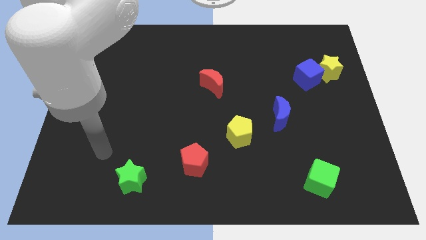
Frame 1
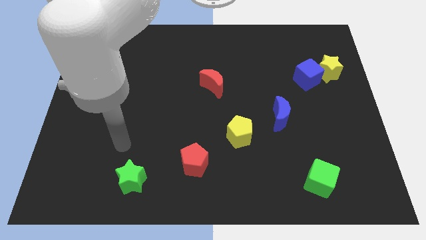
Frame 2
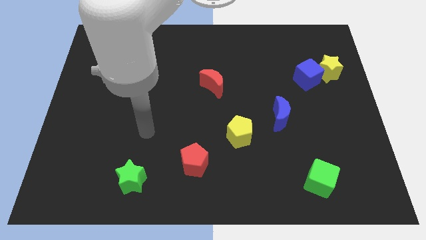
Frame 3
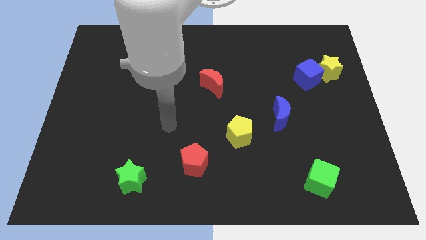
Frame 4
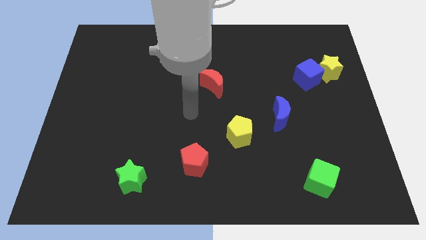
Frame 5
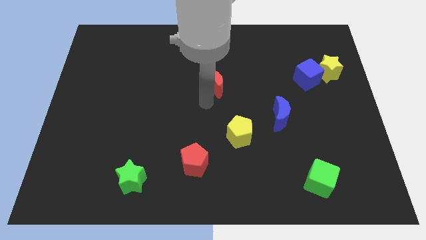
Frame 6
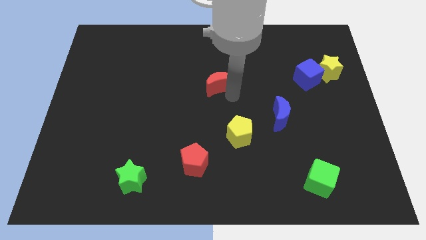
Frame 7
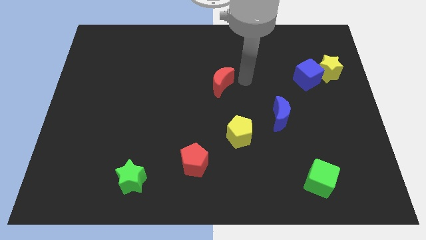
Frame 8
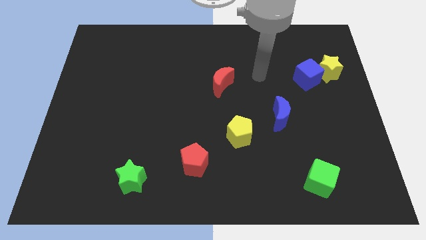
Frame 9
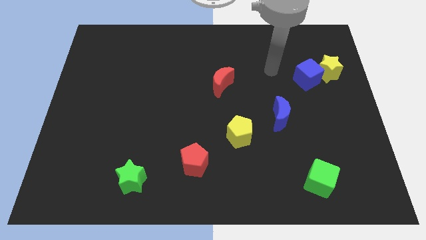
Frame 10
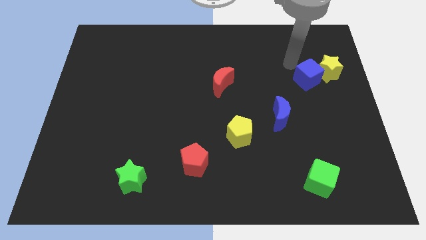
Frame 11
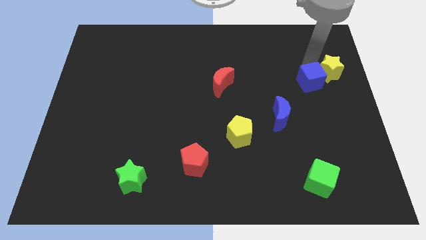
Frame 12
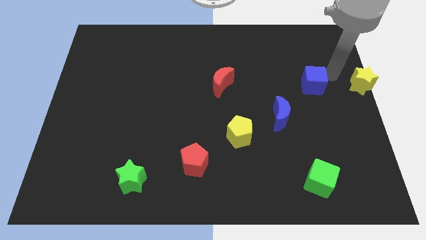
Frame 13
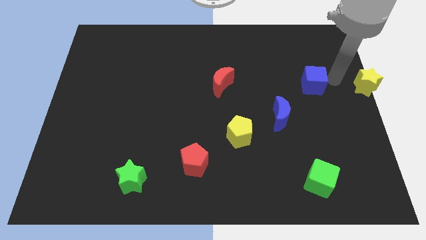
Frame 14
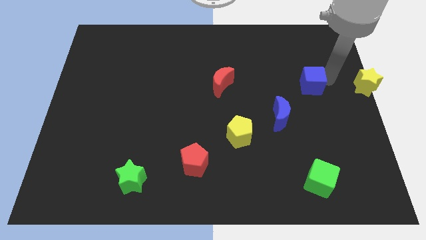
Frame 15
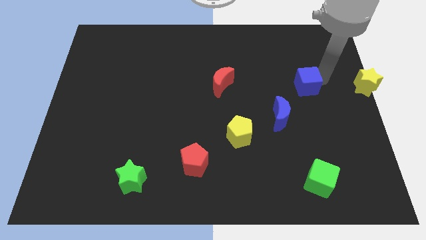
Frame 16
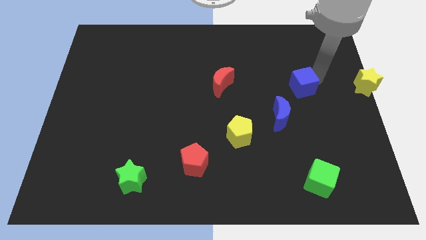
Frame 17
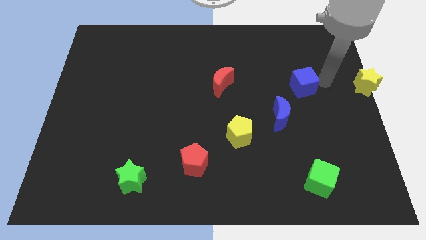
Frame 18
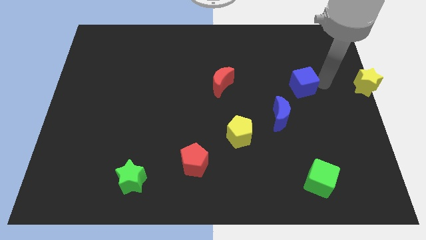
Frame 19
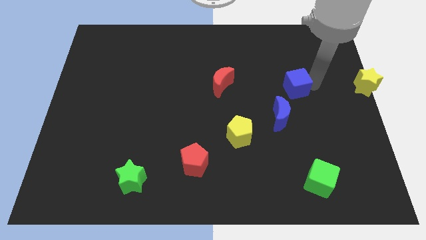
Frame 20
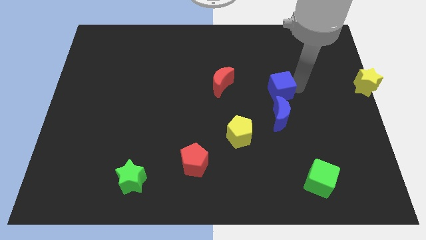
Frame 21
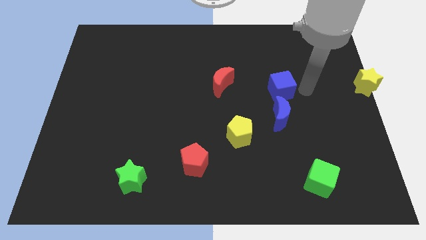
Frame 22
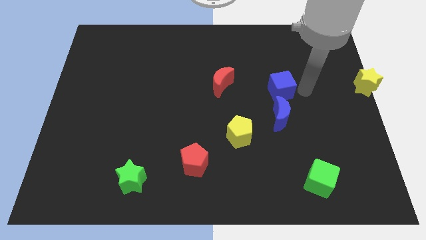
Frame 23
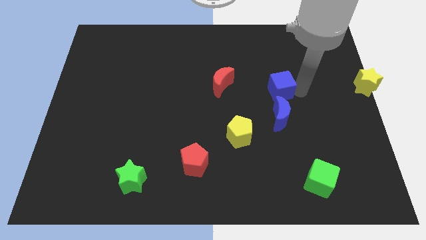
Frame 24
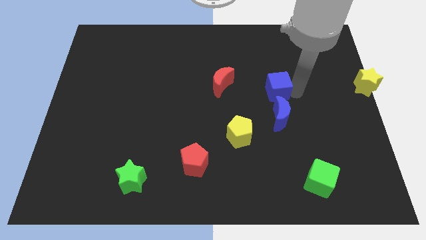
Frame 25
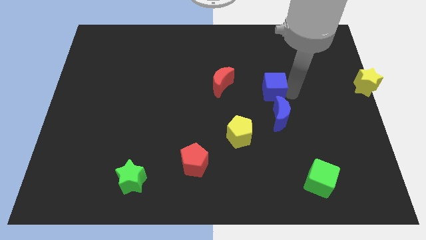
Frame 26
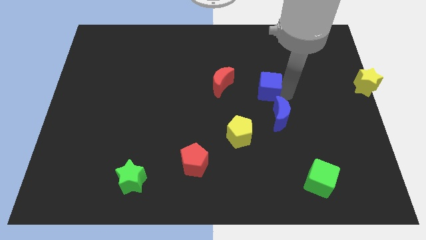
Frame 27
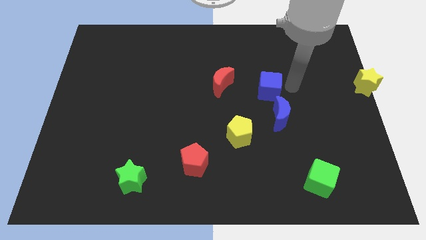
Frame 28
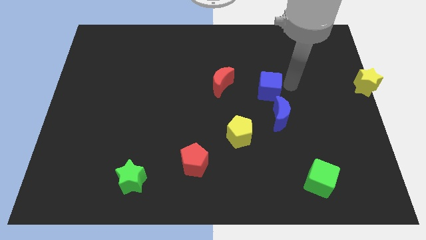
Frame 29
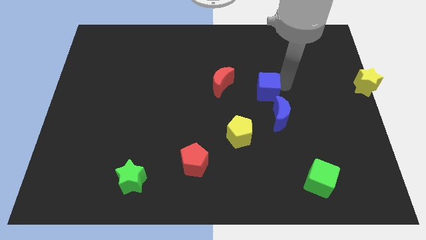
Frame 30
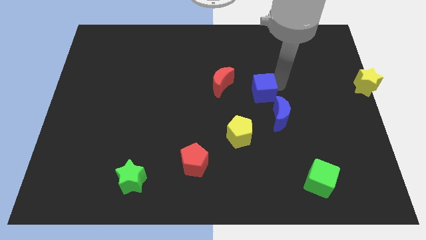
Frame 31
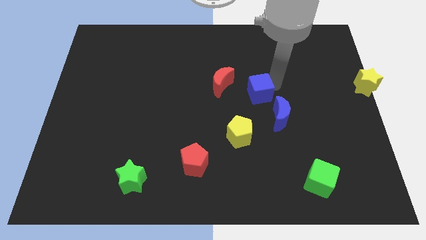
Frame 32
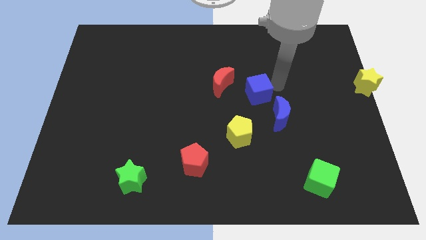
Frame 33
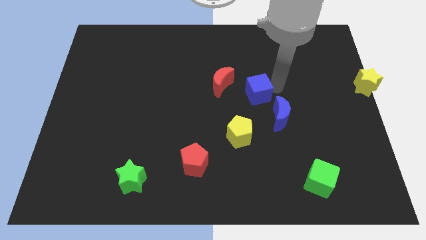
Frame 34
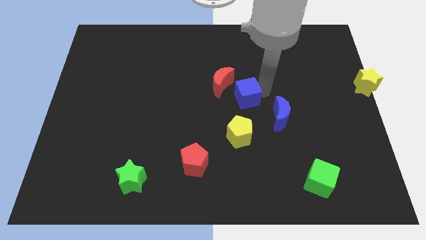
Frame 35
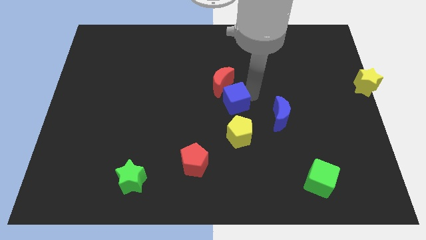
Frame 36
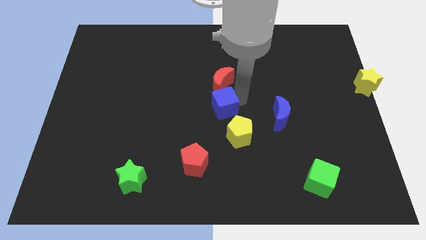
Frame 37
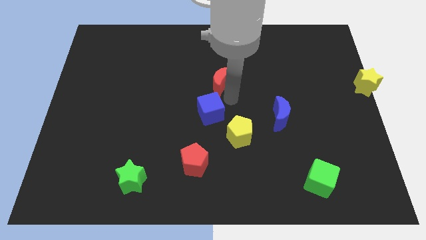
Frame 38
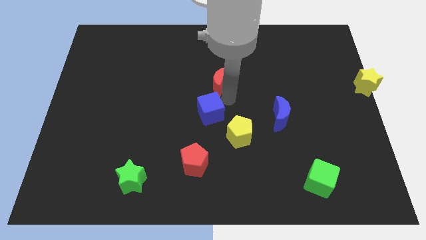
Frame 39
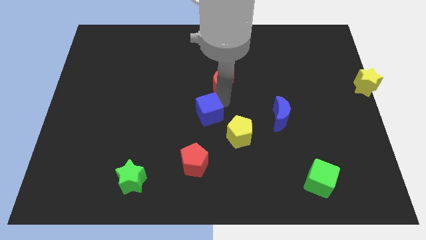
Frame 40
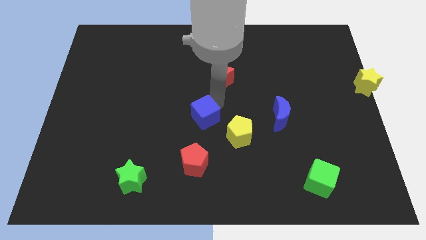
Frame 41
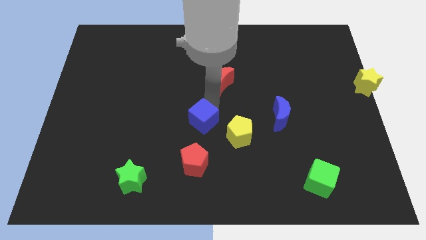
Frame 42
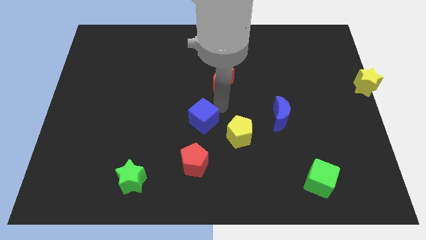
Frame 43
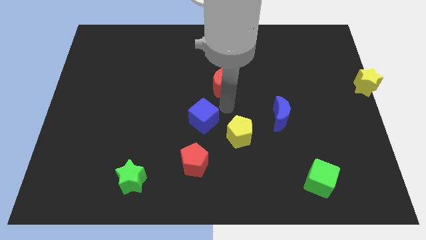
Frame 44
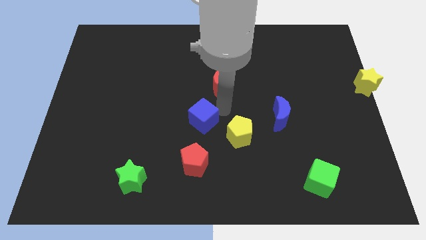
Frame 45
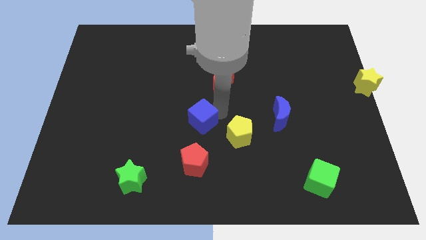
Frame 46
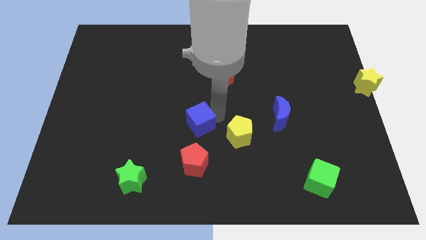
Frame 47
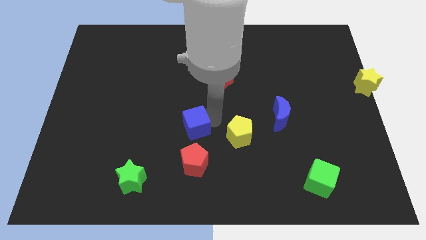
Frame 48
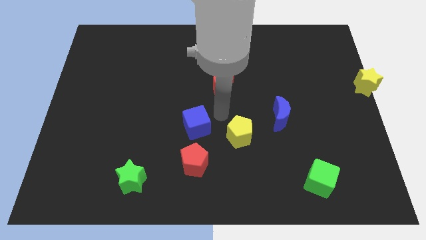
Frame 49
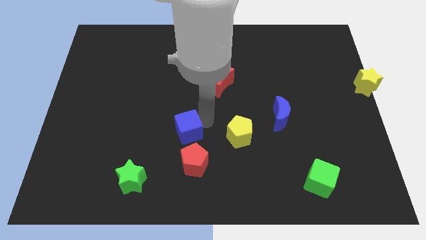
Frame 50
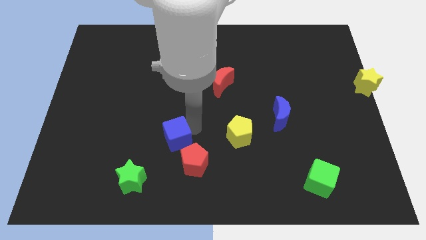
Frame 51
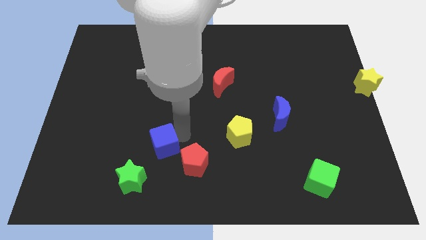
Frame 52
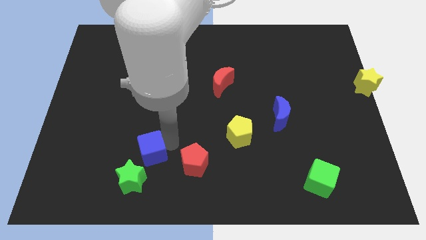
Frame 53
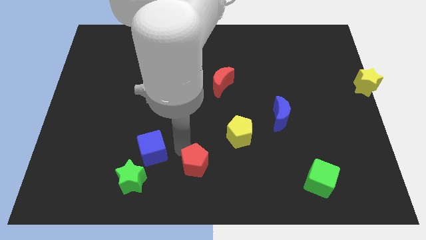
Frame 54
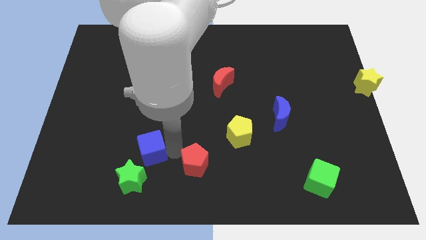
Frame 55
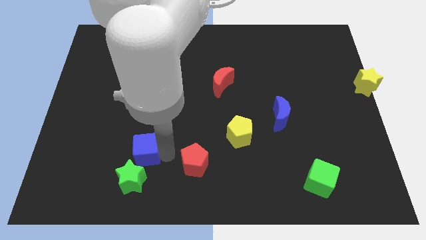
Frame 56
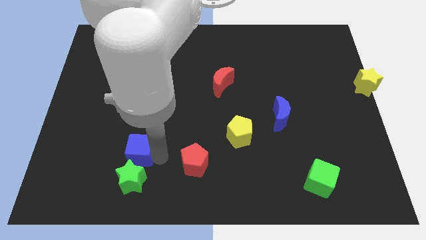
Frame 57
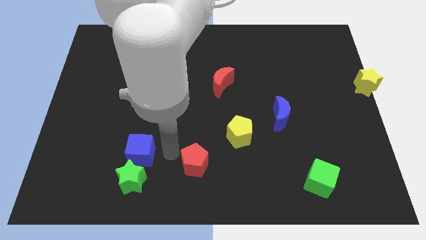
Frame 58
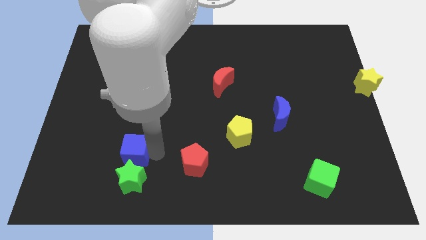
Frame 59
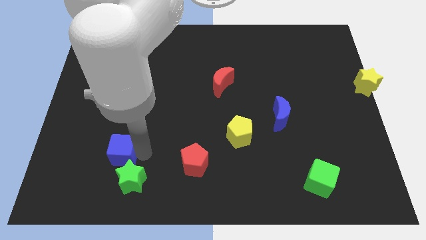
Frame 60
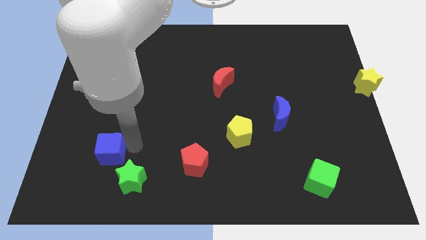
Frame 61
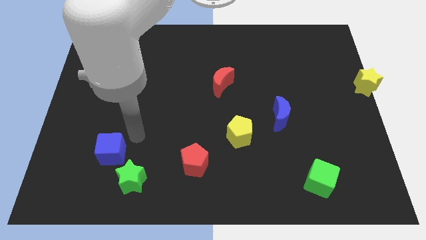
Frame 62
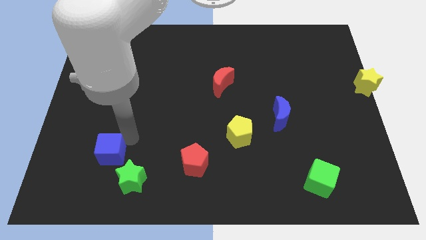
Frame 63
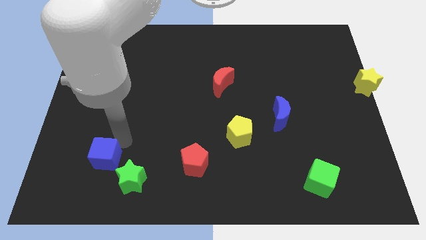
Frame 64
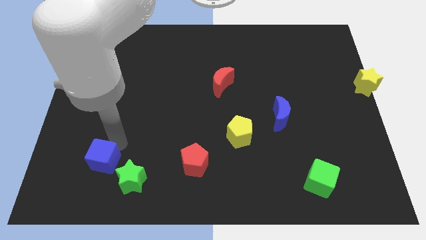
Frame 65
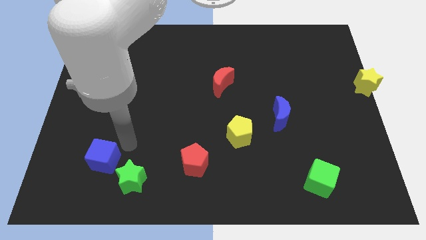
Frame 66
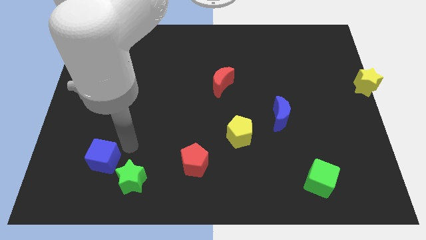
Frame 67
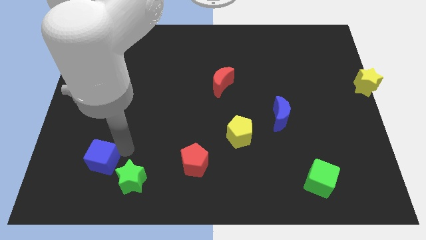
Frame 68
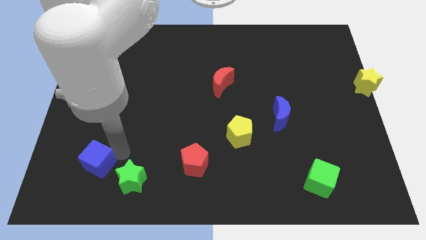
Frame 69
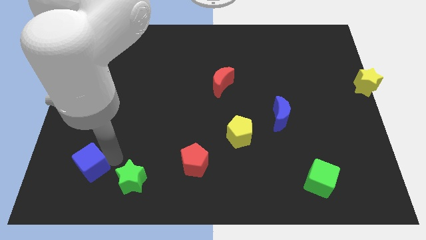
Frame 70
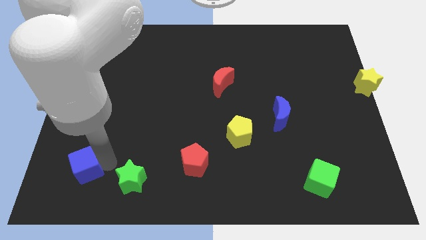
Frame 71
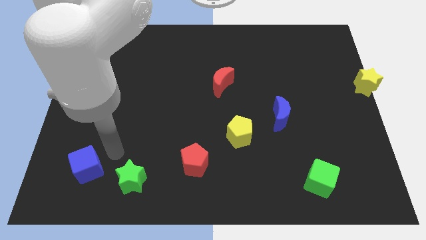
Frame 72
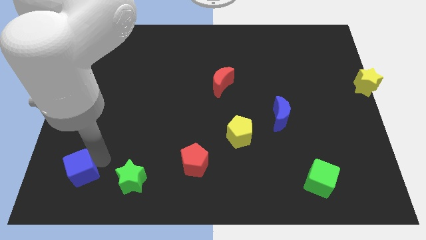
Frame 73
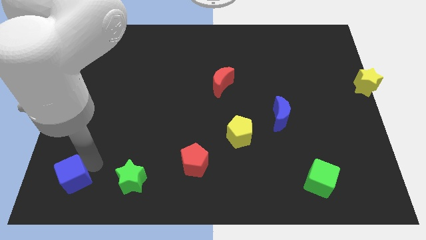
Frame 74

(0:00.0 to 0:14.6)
put the blue cube to the bottom left
